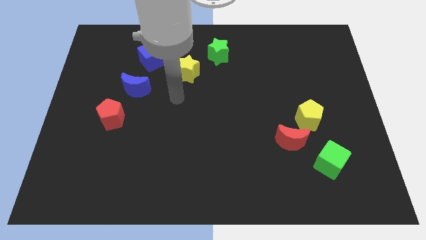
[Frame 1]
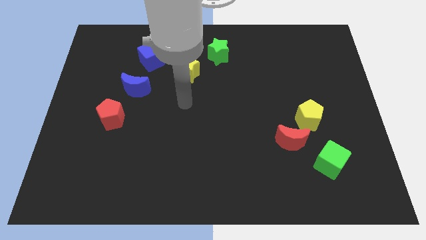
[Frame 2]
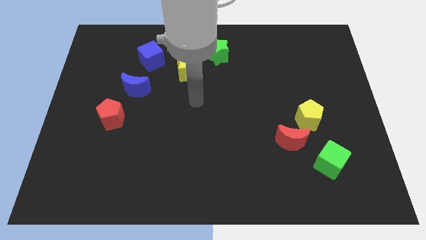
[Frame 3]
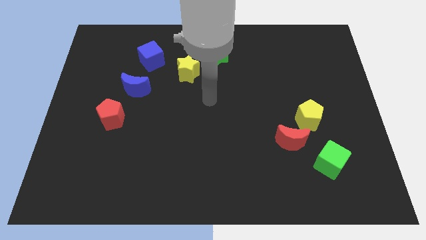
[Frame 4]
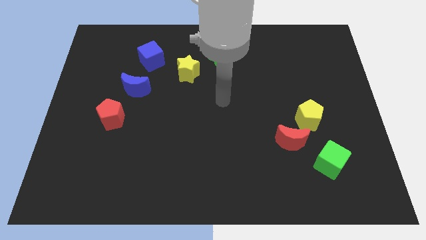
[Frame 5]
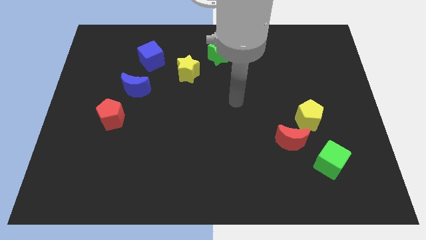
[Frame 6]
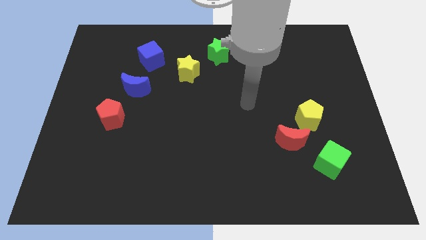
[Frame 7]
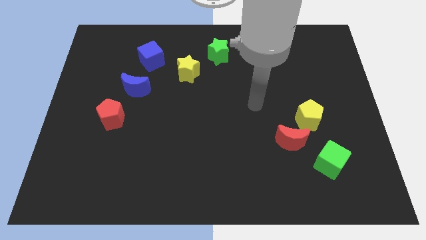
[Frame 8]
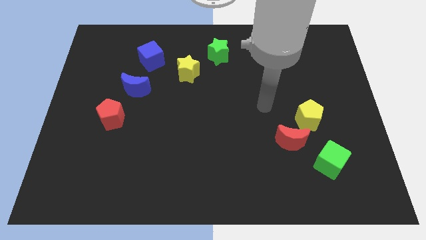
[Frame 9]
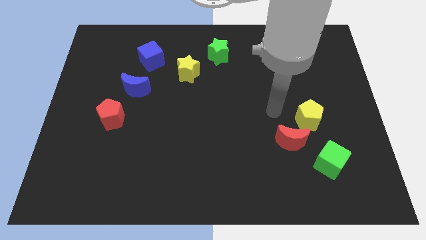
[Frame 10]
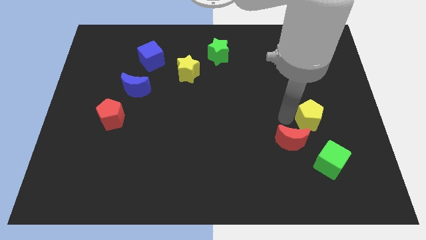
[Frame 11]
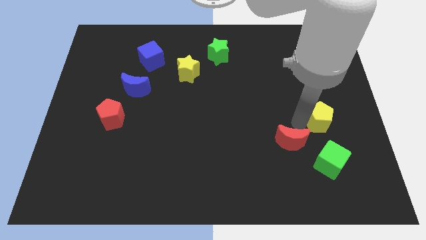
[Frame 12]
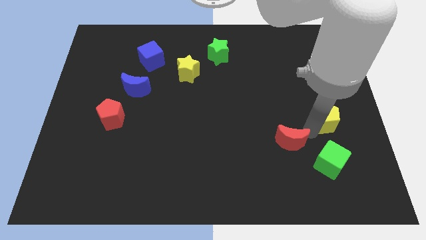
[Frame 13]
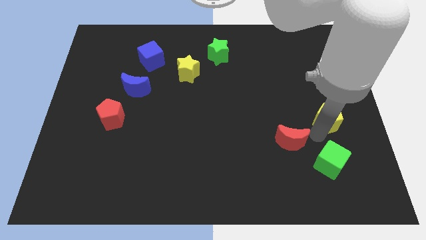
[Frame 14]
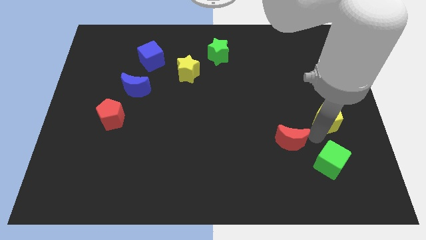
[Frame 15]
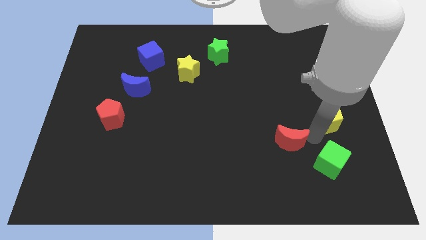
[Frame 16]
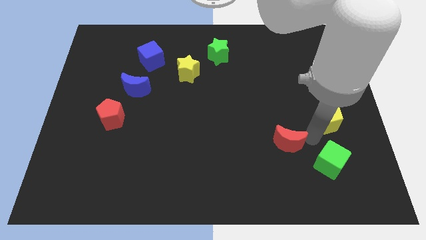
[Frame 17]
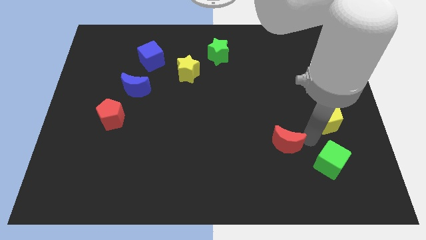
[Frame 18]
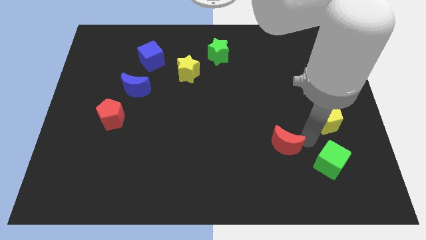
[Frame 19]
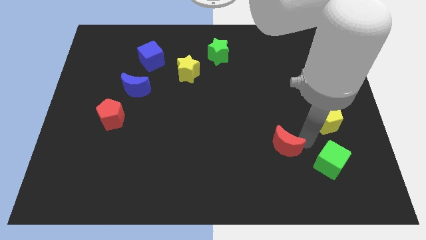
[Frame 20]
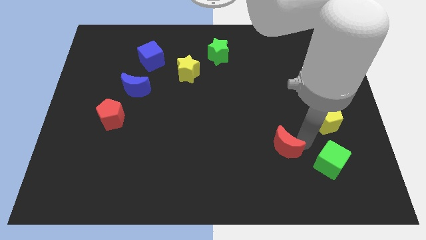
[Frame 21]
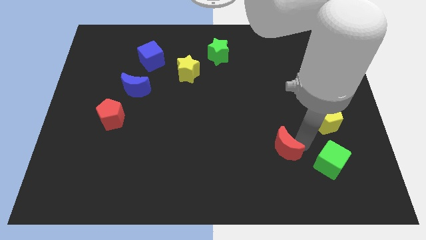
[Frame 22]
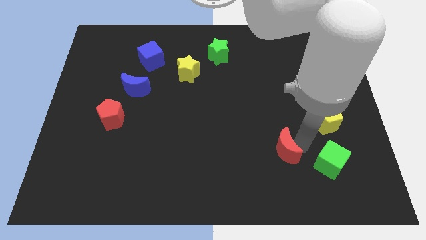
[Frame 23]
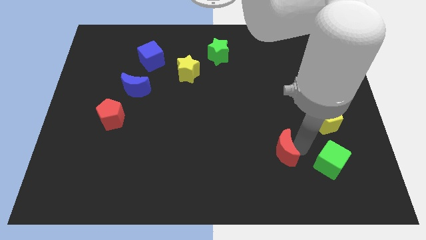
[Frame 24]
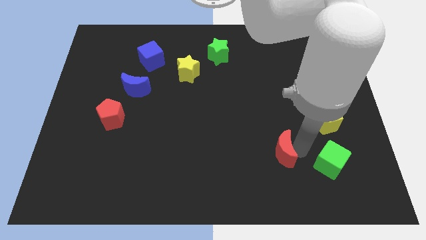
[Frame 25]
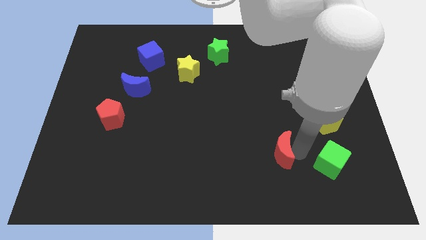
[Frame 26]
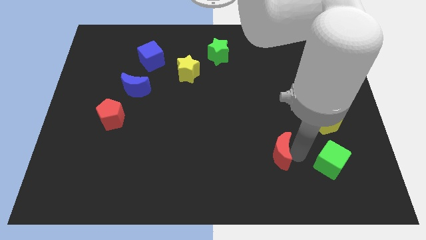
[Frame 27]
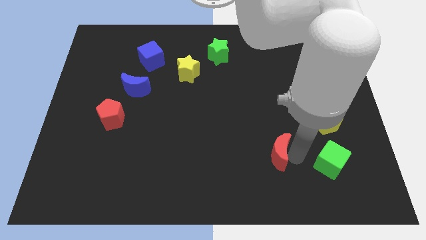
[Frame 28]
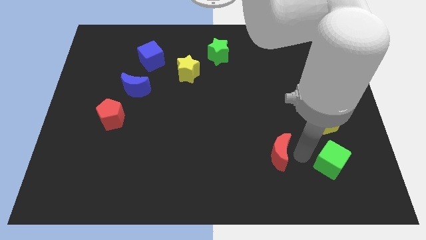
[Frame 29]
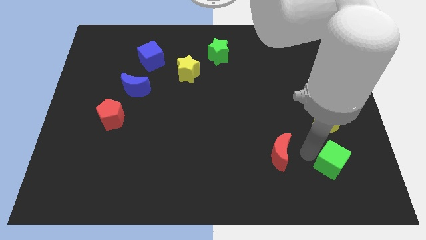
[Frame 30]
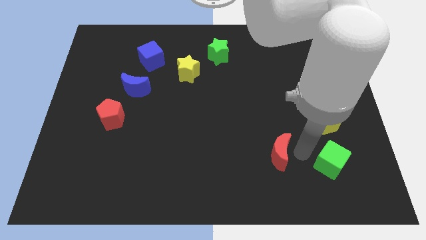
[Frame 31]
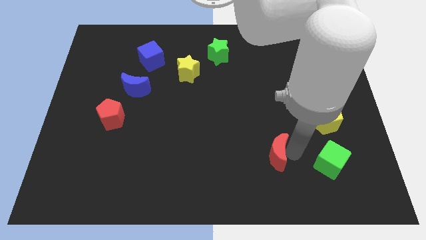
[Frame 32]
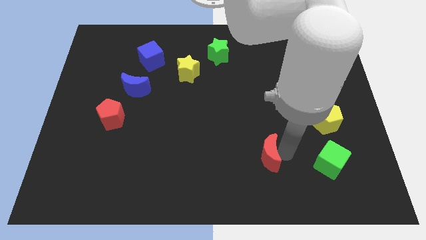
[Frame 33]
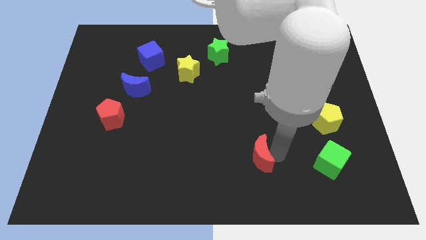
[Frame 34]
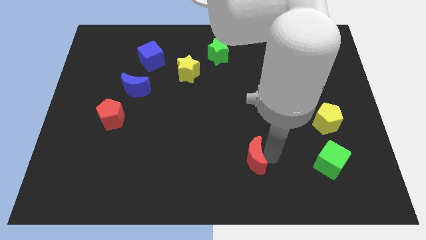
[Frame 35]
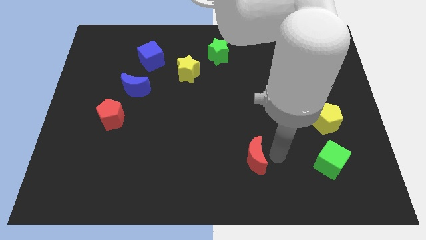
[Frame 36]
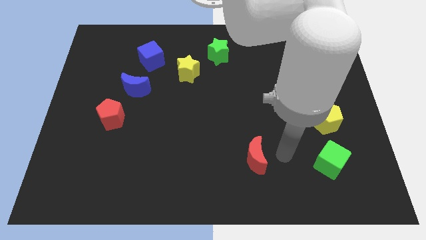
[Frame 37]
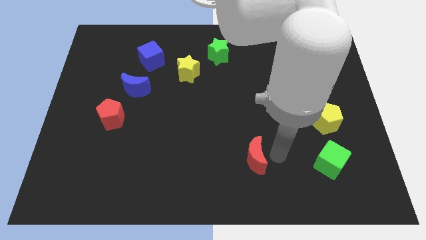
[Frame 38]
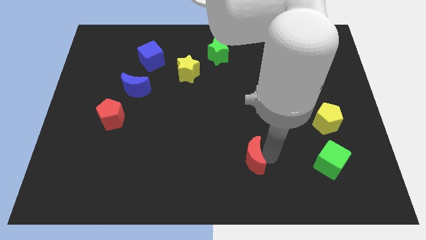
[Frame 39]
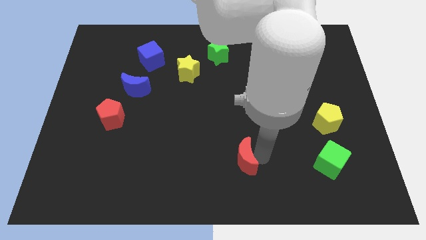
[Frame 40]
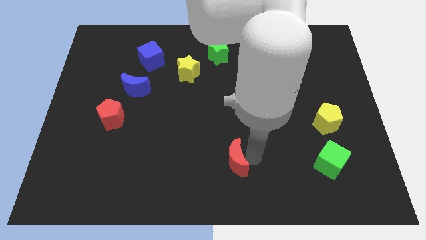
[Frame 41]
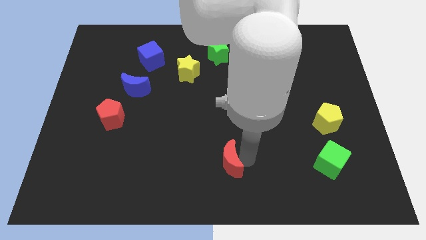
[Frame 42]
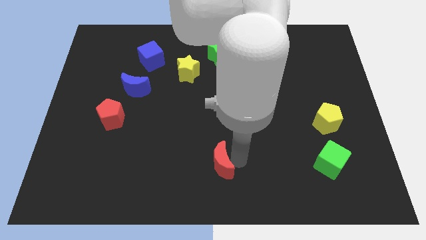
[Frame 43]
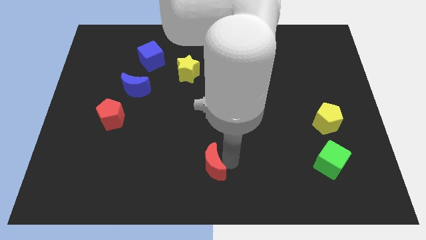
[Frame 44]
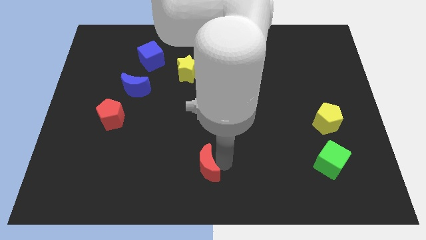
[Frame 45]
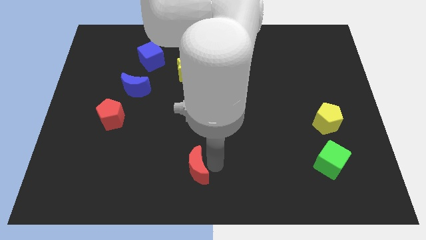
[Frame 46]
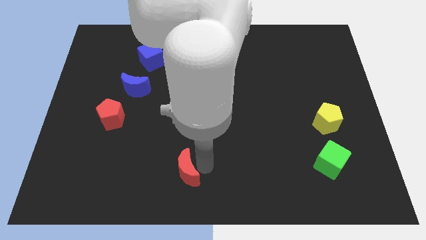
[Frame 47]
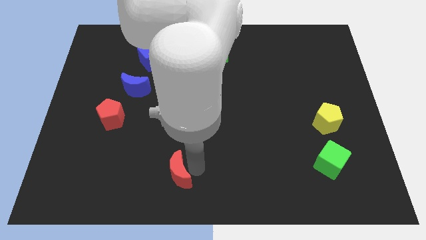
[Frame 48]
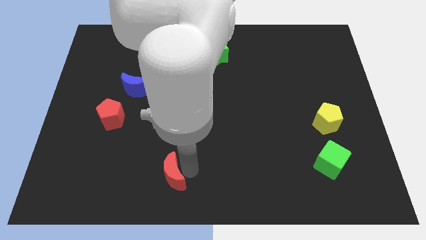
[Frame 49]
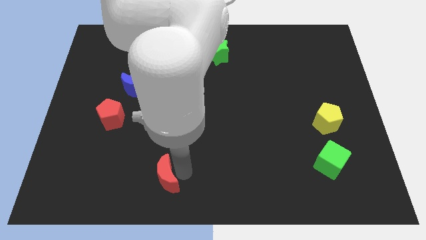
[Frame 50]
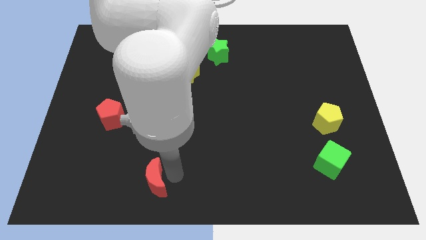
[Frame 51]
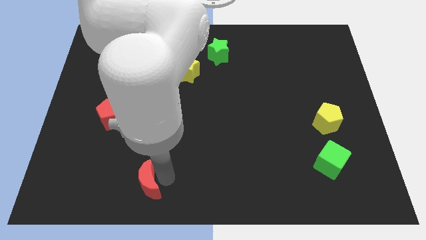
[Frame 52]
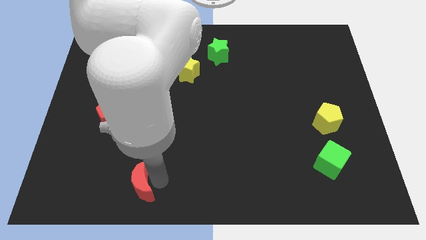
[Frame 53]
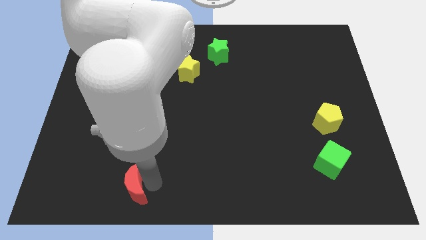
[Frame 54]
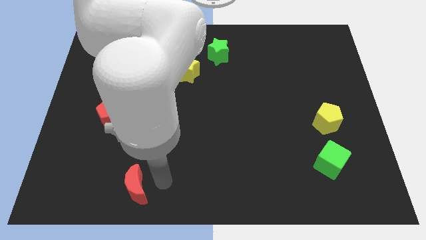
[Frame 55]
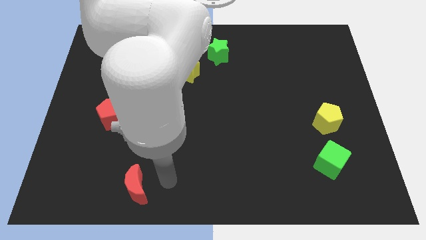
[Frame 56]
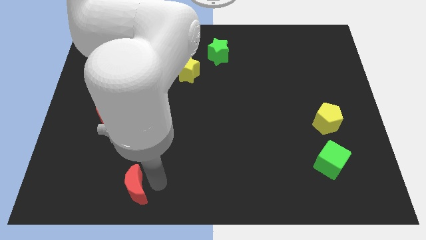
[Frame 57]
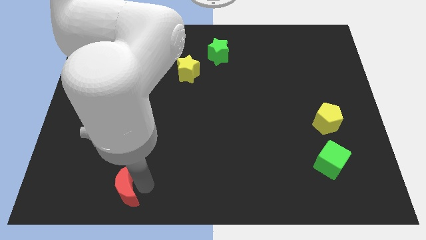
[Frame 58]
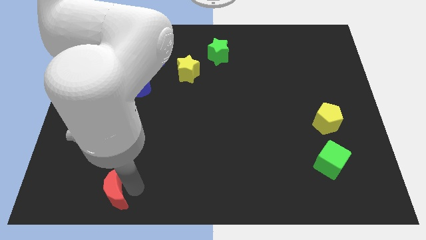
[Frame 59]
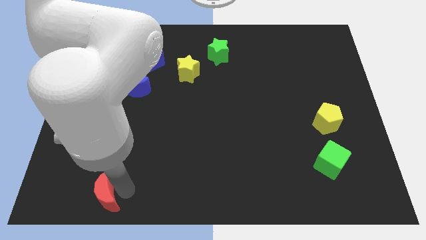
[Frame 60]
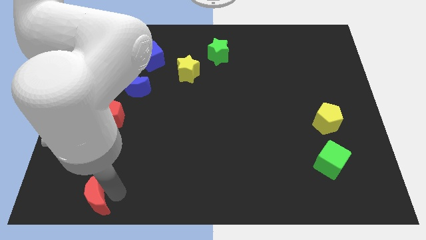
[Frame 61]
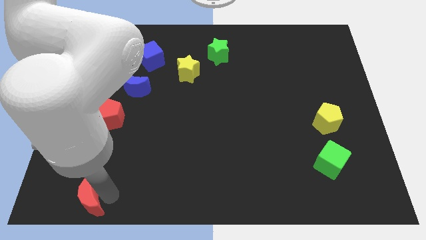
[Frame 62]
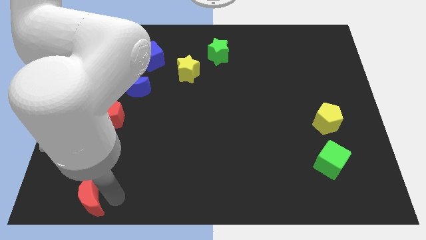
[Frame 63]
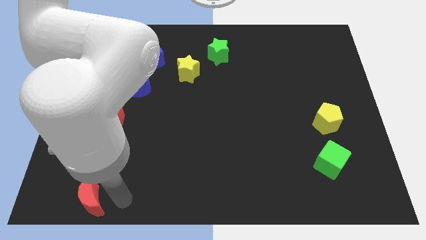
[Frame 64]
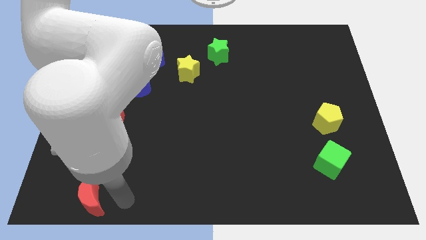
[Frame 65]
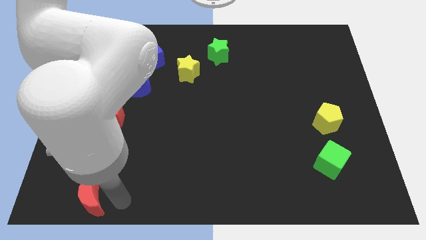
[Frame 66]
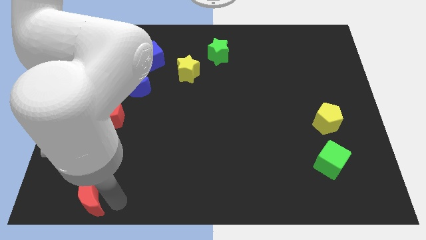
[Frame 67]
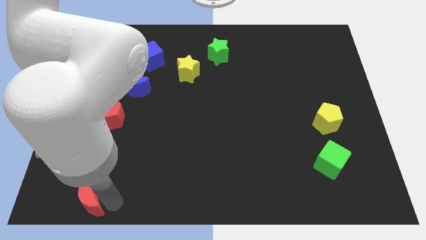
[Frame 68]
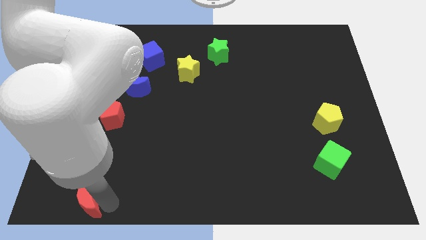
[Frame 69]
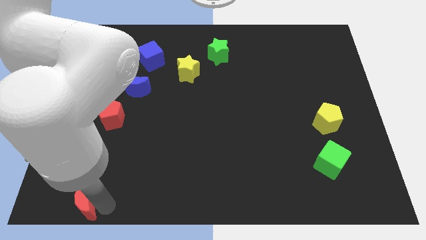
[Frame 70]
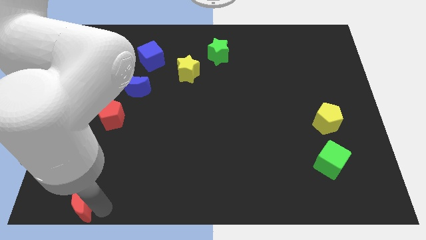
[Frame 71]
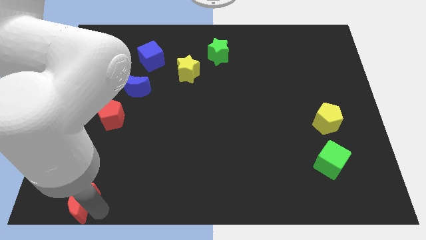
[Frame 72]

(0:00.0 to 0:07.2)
put the red moon to the lower left corner
